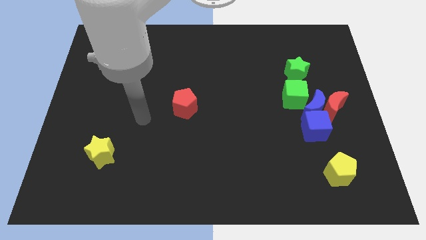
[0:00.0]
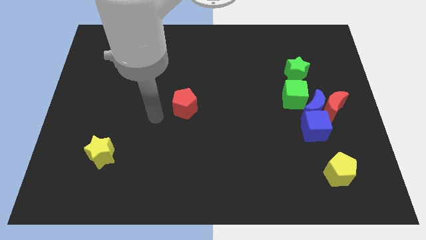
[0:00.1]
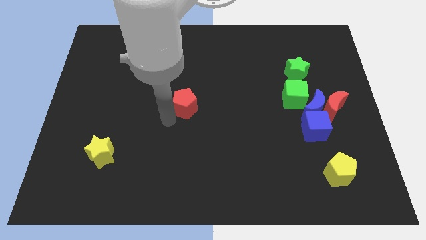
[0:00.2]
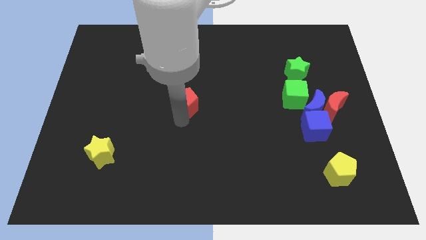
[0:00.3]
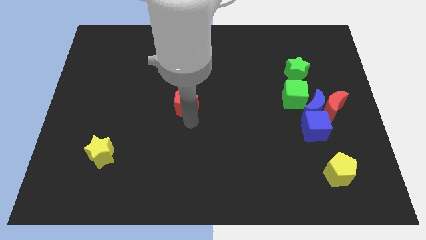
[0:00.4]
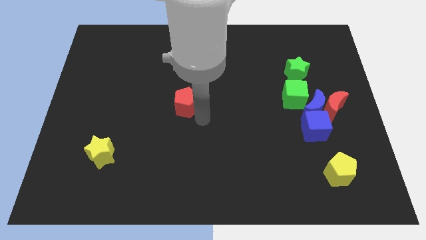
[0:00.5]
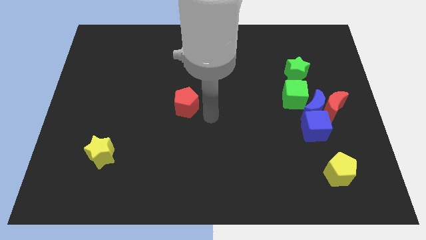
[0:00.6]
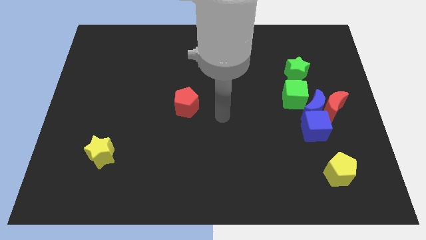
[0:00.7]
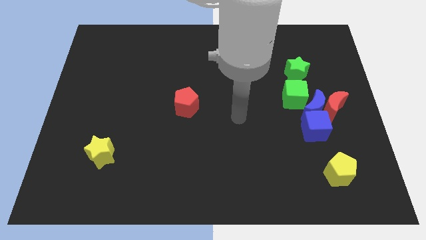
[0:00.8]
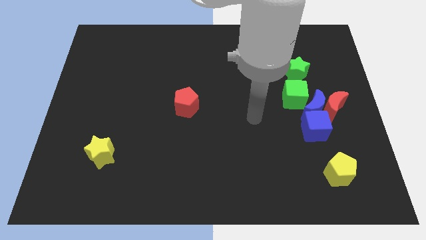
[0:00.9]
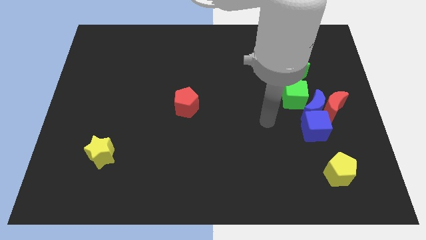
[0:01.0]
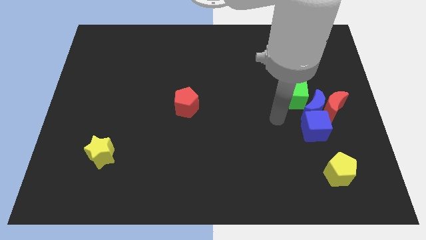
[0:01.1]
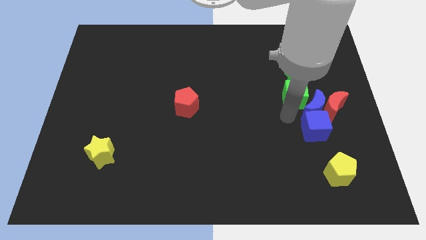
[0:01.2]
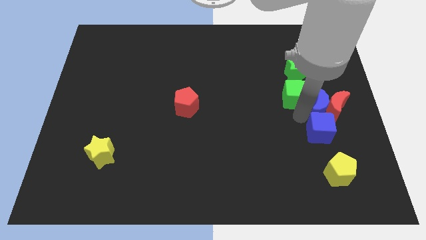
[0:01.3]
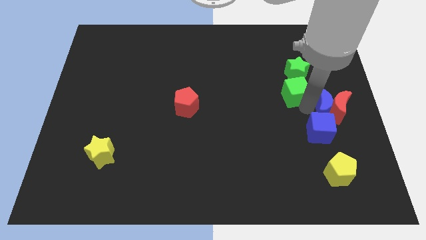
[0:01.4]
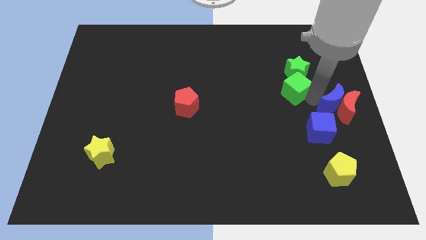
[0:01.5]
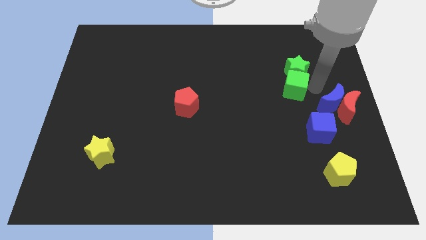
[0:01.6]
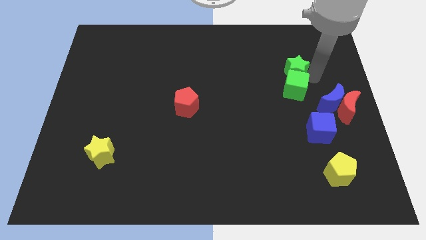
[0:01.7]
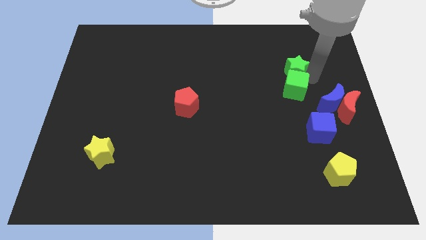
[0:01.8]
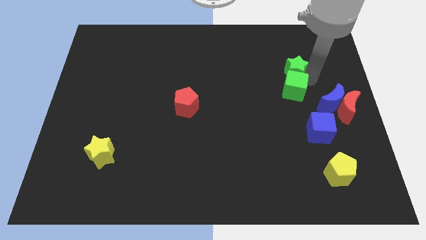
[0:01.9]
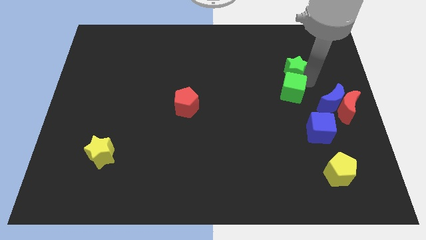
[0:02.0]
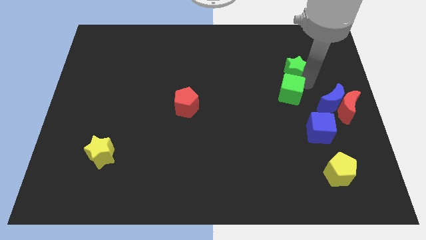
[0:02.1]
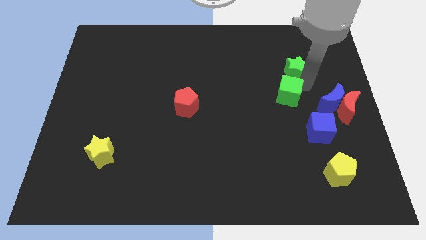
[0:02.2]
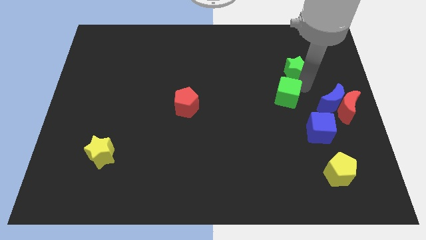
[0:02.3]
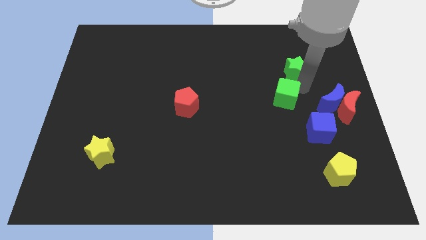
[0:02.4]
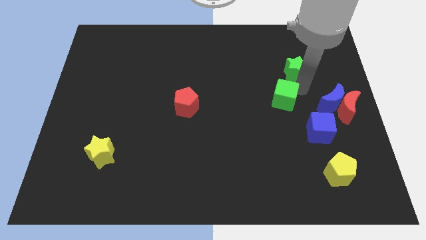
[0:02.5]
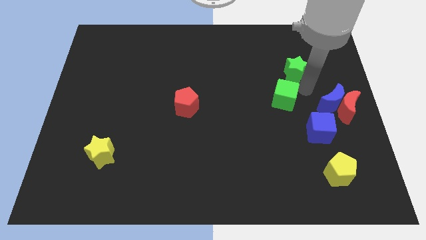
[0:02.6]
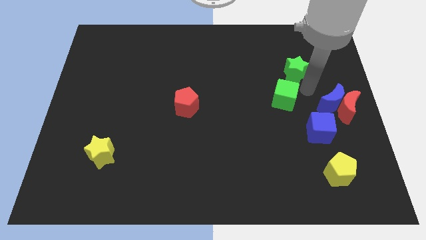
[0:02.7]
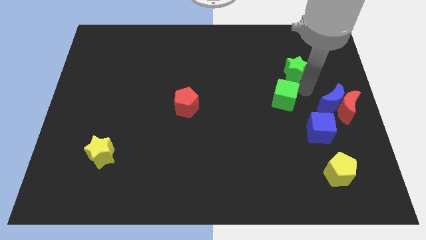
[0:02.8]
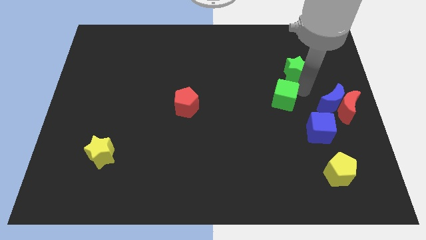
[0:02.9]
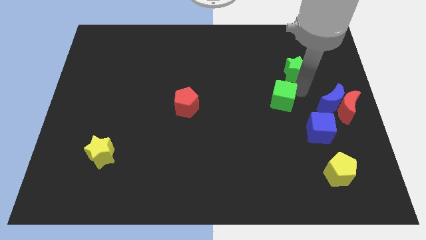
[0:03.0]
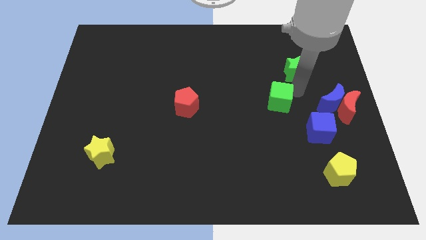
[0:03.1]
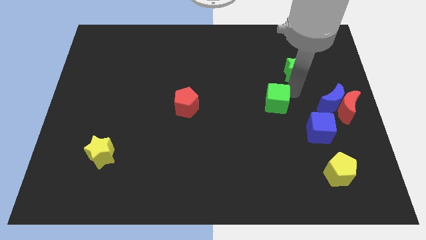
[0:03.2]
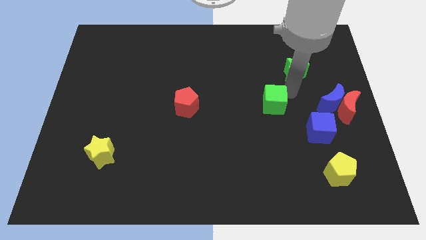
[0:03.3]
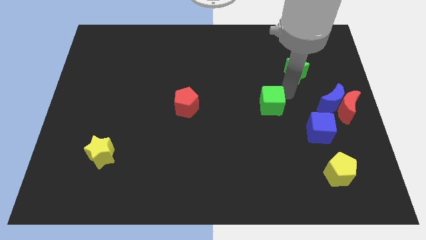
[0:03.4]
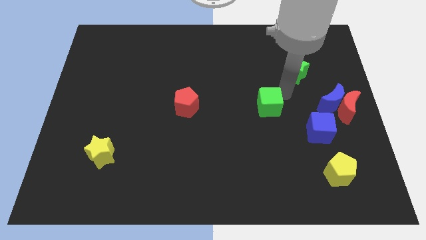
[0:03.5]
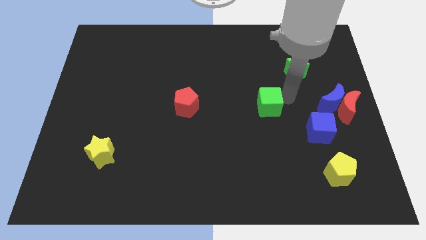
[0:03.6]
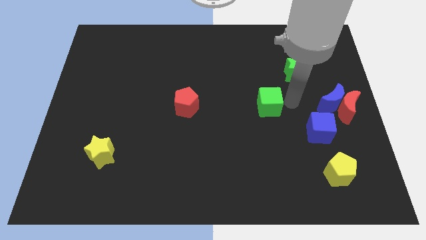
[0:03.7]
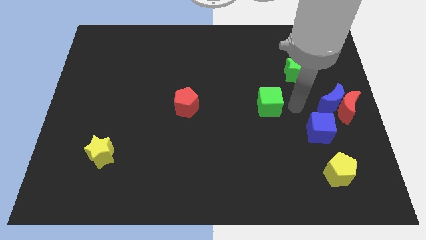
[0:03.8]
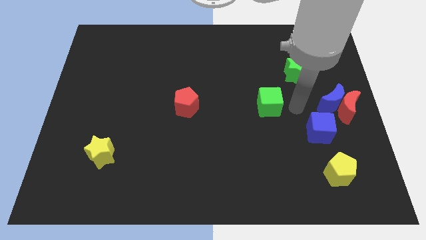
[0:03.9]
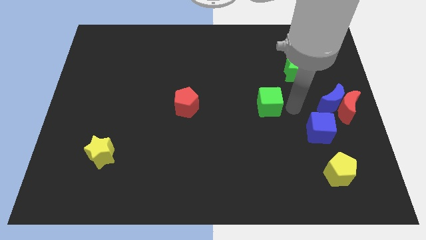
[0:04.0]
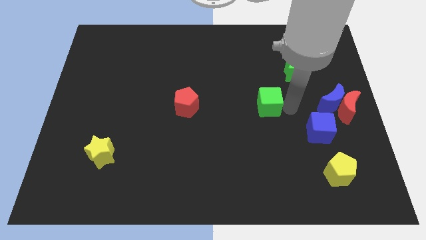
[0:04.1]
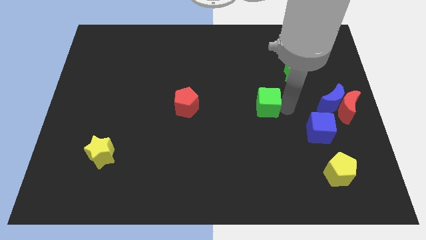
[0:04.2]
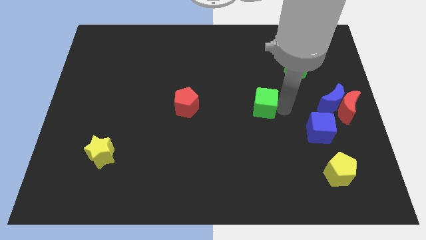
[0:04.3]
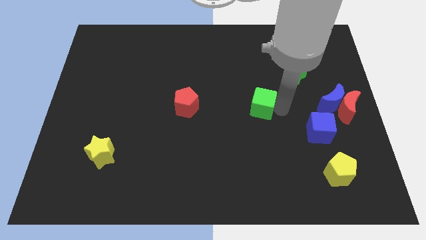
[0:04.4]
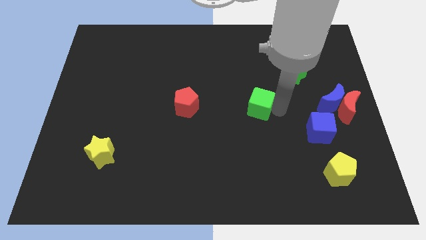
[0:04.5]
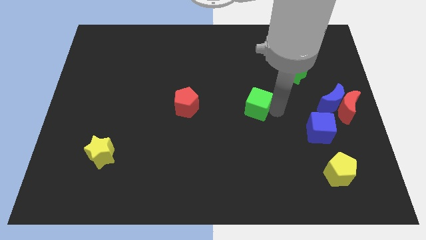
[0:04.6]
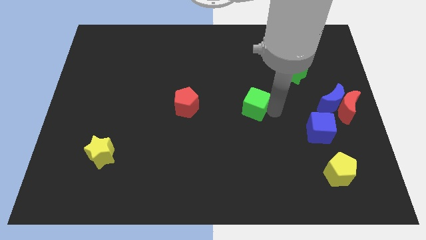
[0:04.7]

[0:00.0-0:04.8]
slide the green cube to the right side of the red pentagon

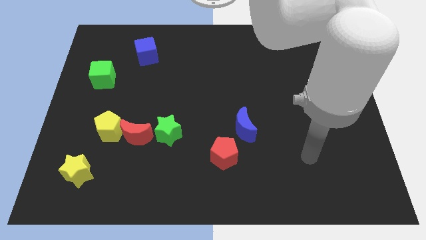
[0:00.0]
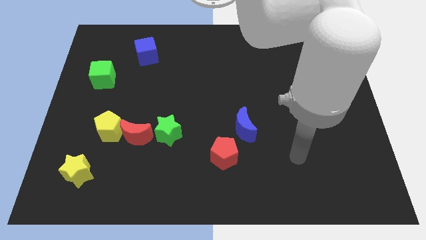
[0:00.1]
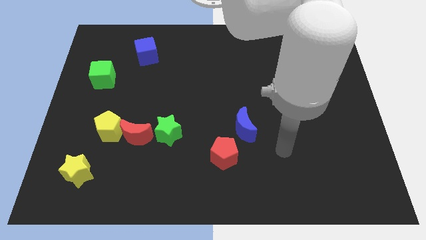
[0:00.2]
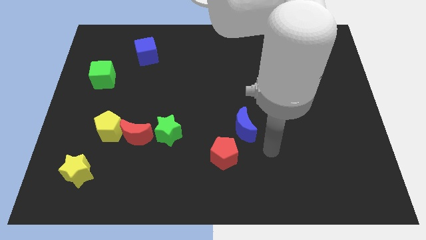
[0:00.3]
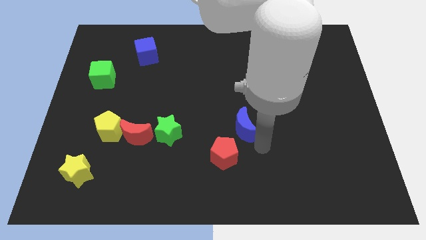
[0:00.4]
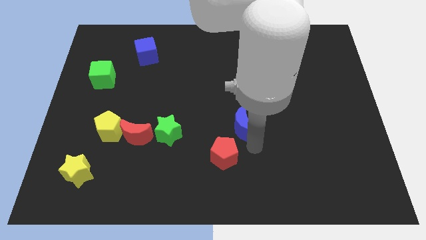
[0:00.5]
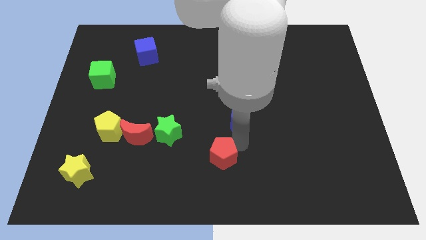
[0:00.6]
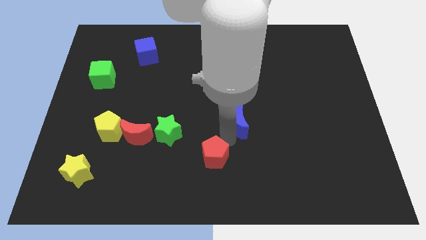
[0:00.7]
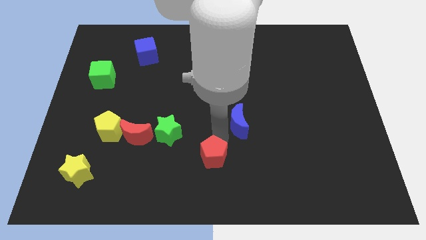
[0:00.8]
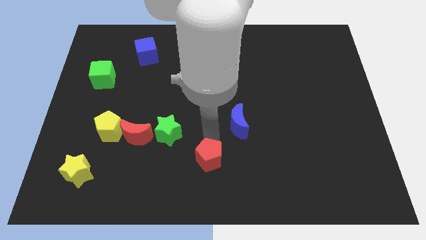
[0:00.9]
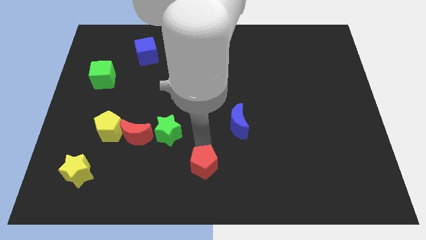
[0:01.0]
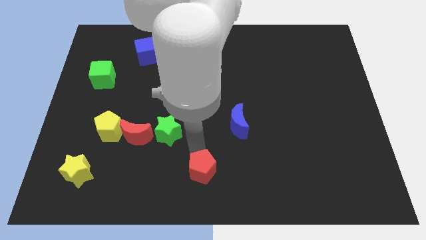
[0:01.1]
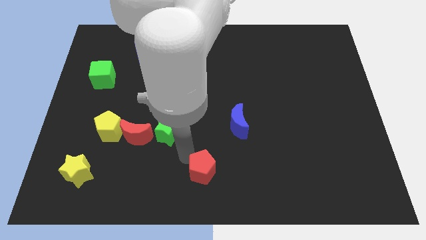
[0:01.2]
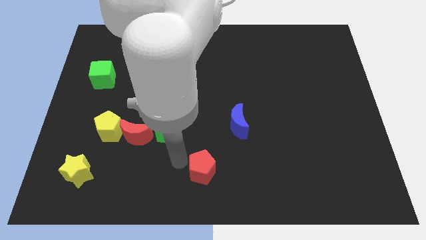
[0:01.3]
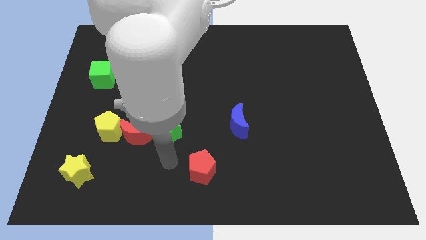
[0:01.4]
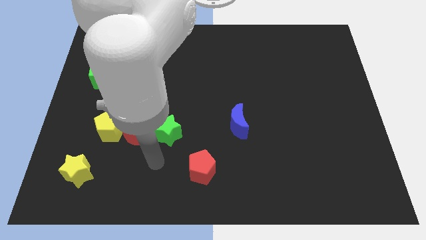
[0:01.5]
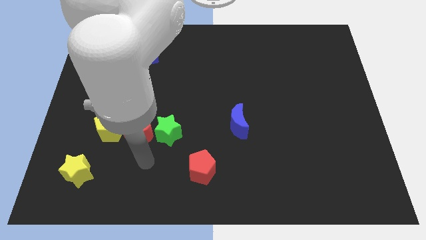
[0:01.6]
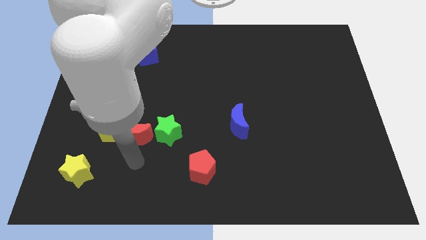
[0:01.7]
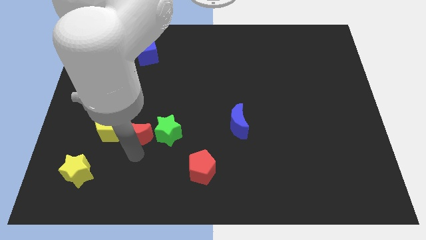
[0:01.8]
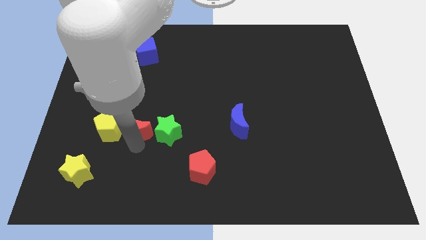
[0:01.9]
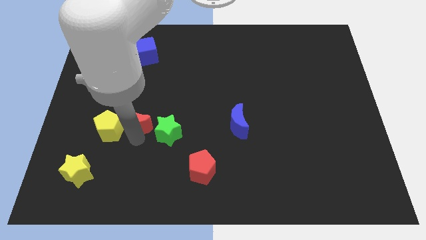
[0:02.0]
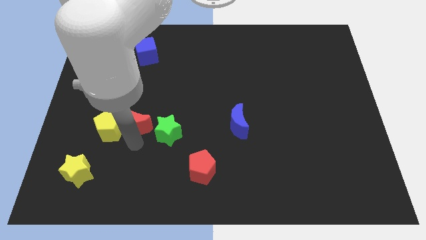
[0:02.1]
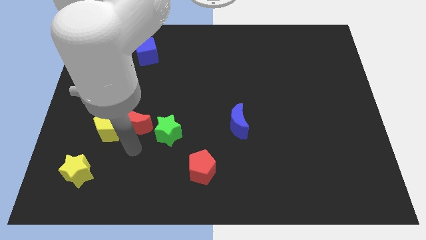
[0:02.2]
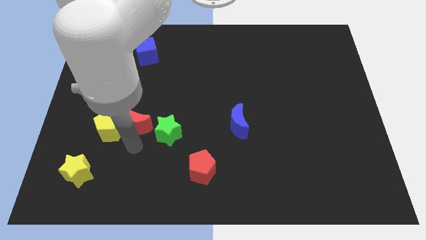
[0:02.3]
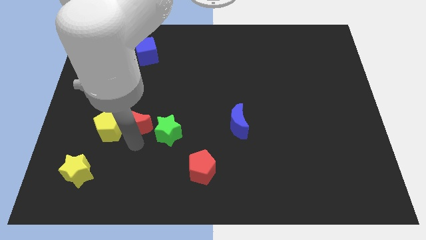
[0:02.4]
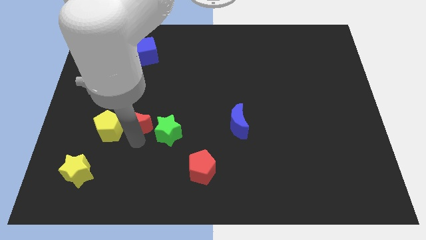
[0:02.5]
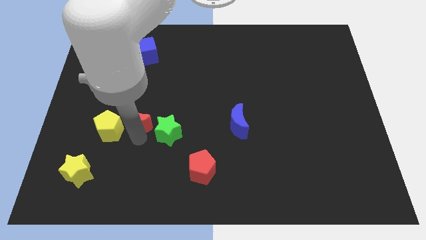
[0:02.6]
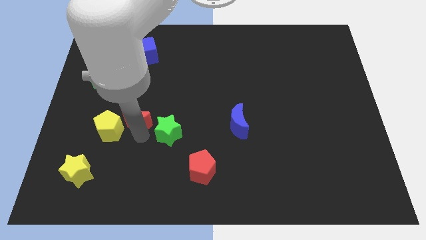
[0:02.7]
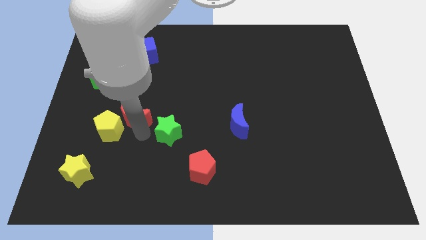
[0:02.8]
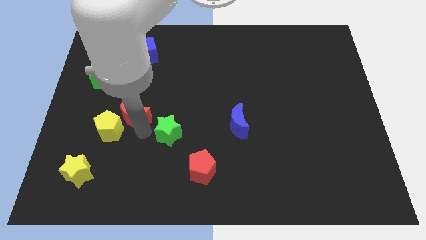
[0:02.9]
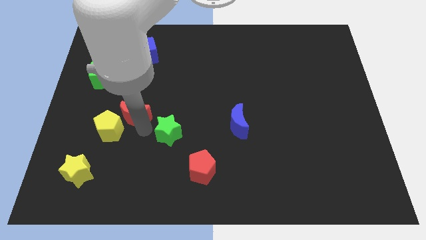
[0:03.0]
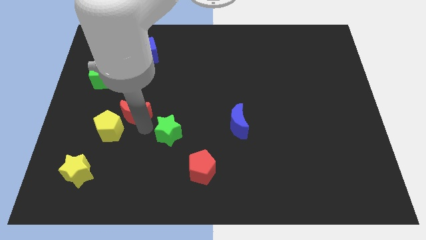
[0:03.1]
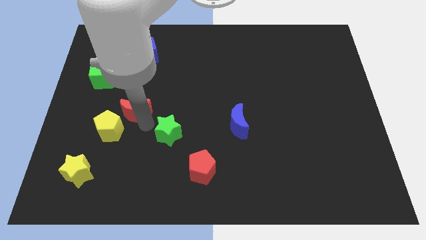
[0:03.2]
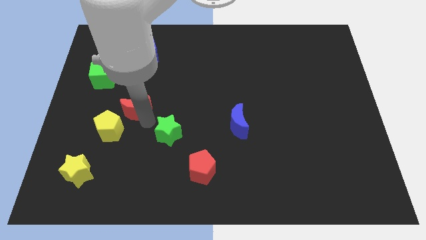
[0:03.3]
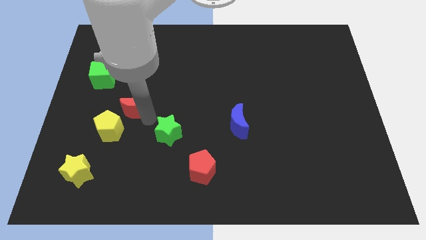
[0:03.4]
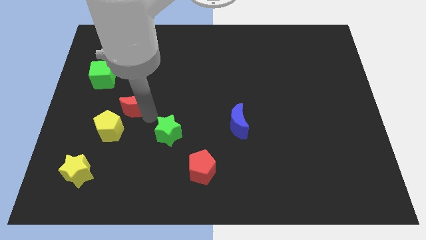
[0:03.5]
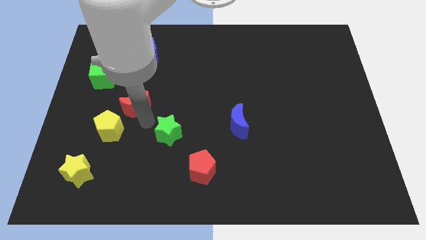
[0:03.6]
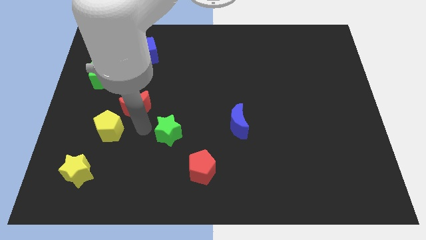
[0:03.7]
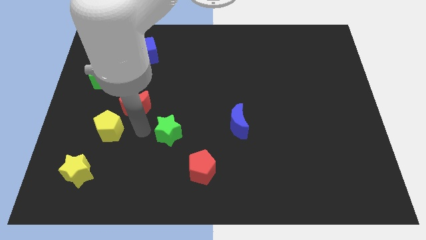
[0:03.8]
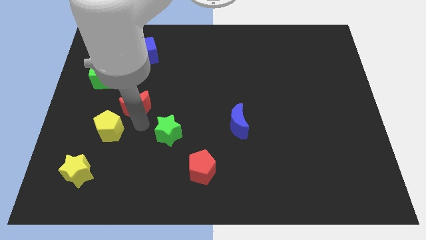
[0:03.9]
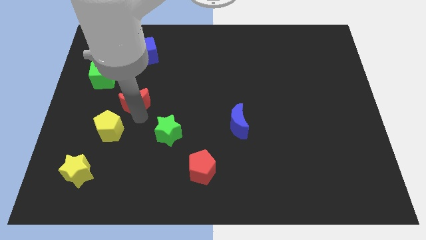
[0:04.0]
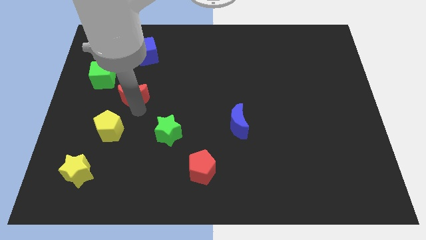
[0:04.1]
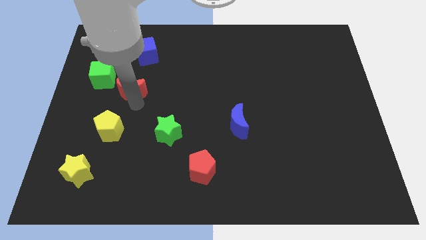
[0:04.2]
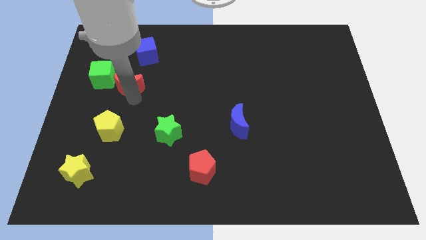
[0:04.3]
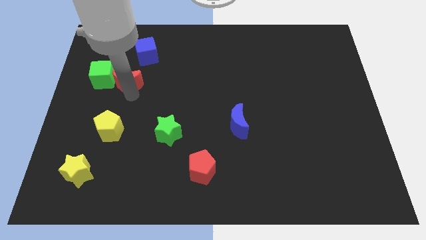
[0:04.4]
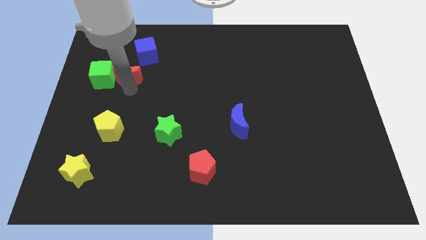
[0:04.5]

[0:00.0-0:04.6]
put the red moon diagonally up and to the right of the green cube
